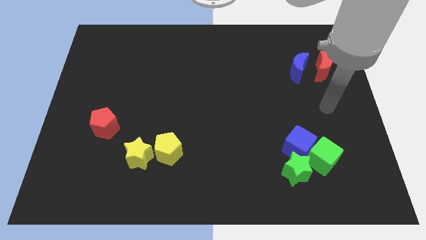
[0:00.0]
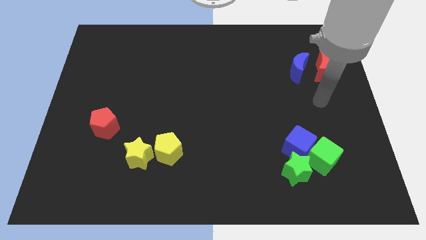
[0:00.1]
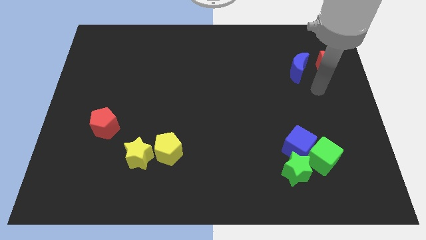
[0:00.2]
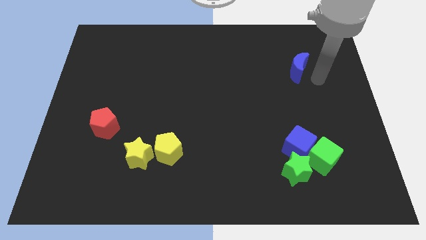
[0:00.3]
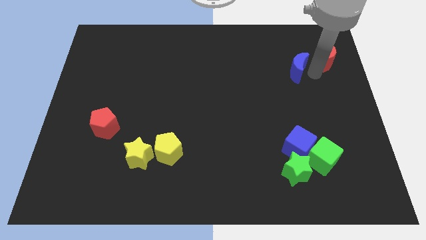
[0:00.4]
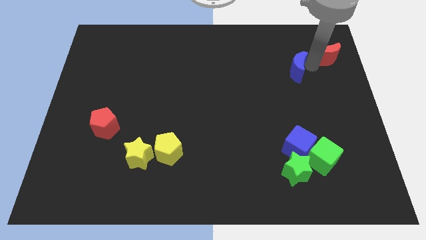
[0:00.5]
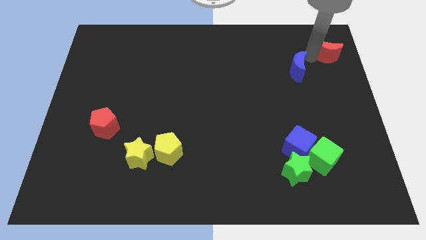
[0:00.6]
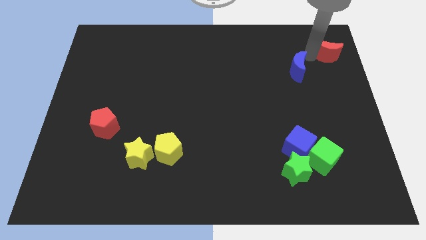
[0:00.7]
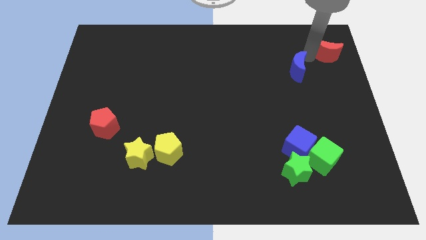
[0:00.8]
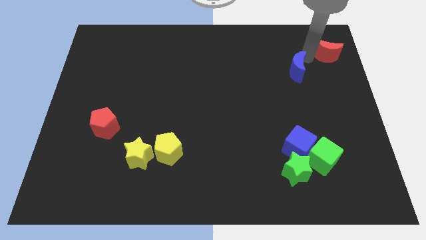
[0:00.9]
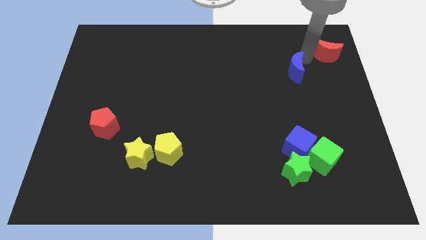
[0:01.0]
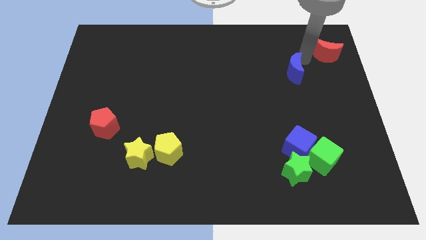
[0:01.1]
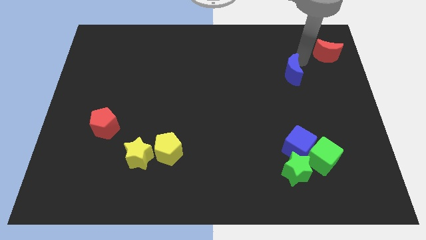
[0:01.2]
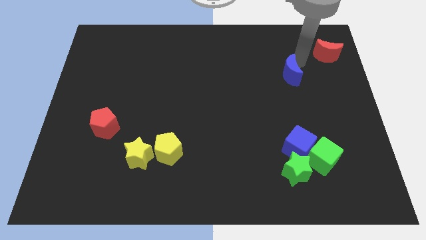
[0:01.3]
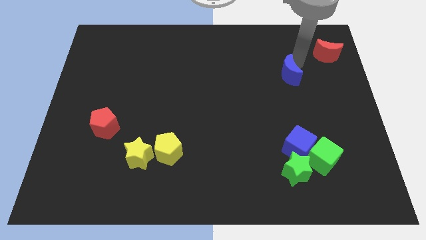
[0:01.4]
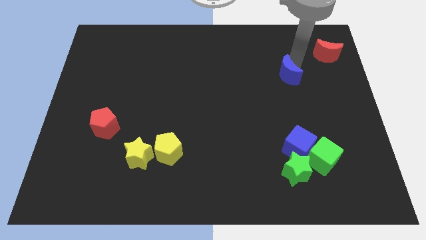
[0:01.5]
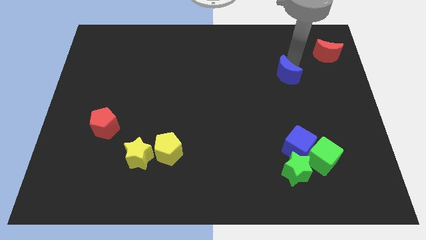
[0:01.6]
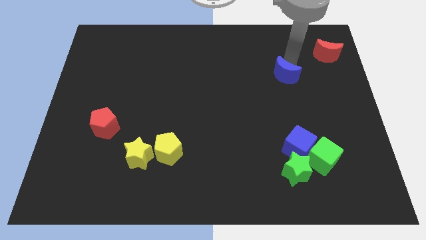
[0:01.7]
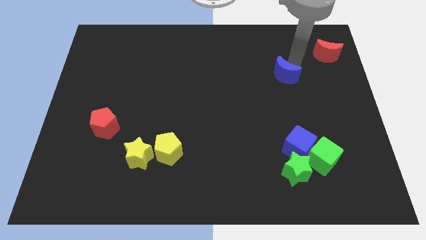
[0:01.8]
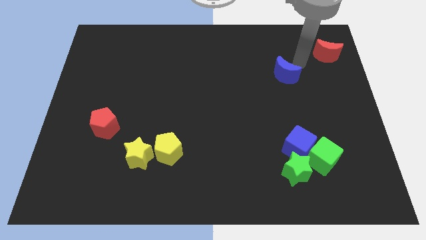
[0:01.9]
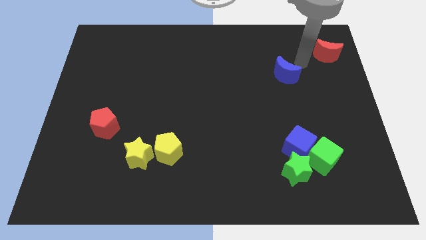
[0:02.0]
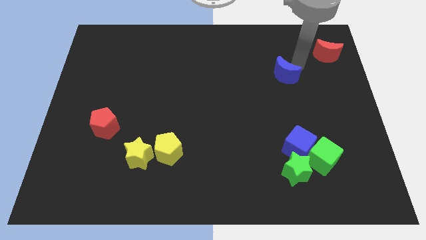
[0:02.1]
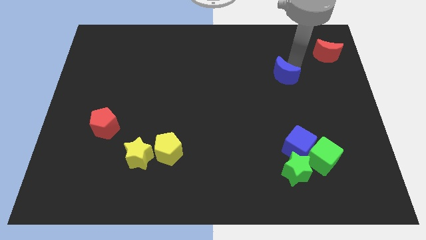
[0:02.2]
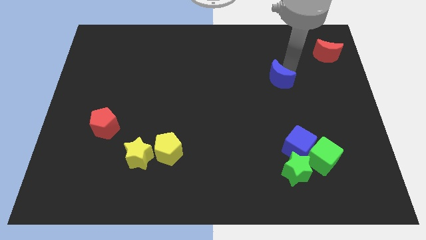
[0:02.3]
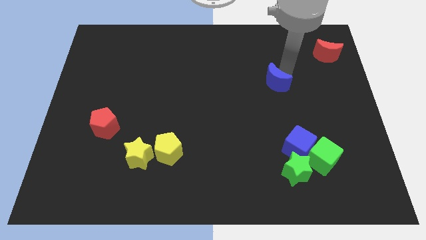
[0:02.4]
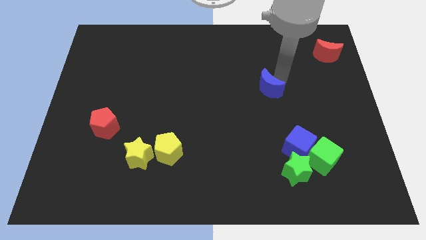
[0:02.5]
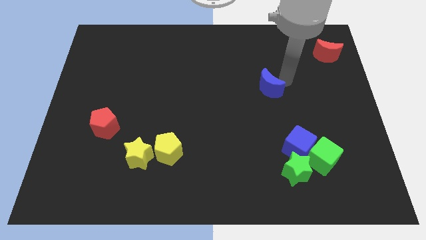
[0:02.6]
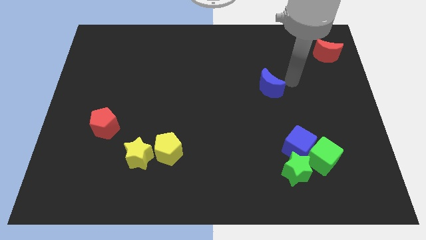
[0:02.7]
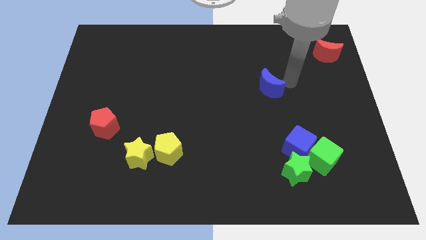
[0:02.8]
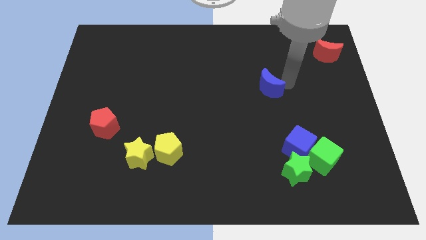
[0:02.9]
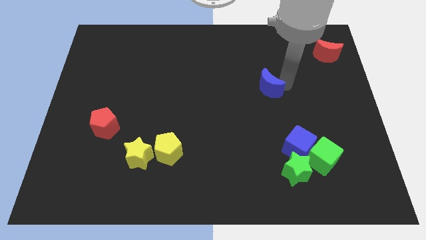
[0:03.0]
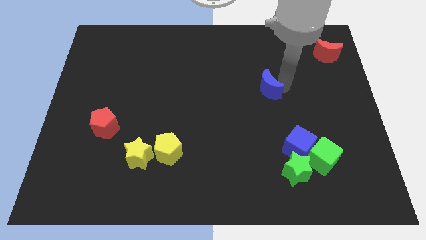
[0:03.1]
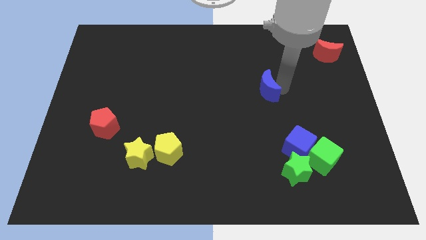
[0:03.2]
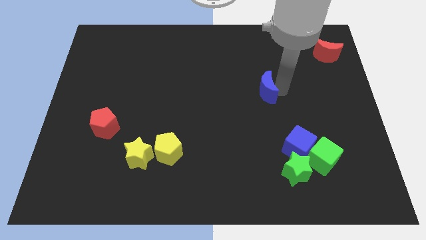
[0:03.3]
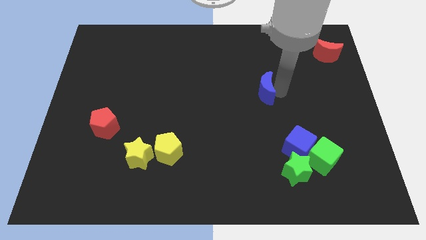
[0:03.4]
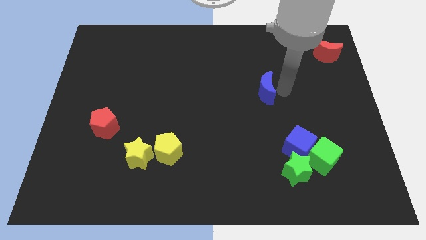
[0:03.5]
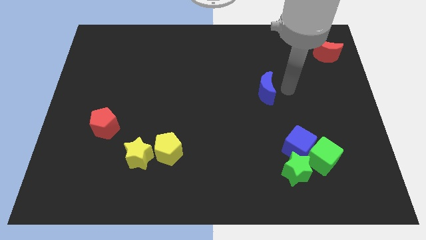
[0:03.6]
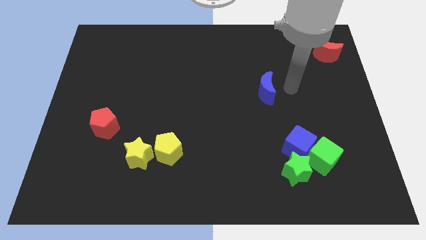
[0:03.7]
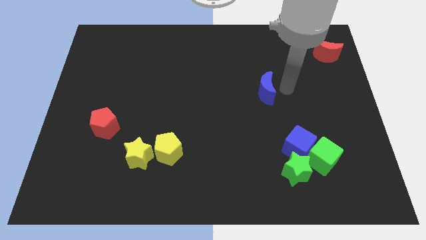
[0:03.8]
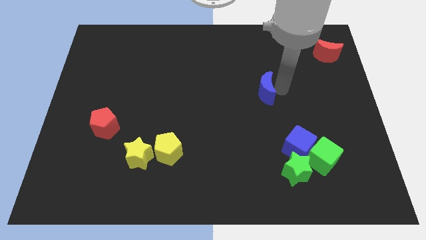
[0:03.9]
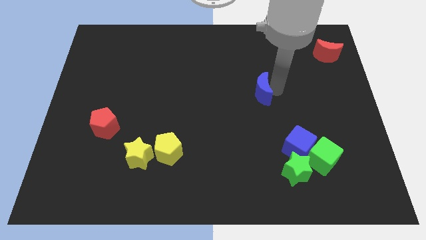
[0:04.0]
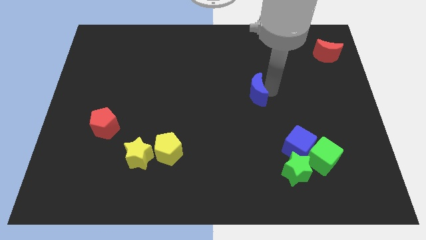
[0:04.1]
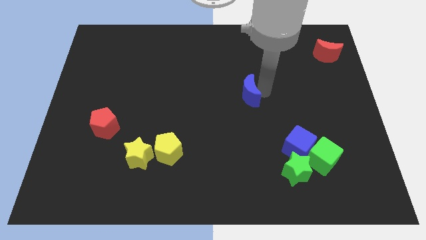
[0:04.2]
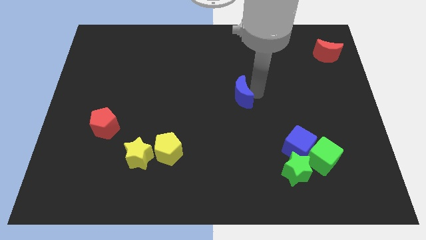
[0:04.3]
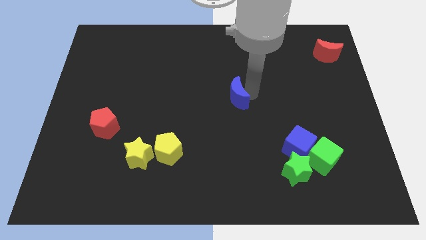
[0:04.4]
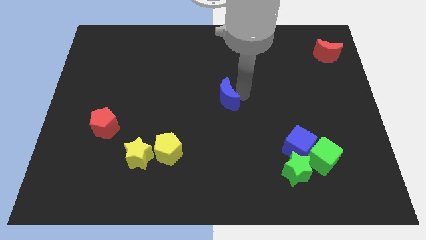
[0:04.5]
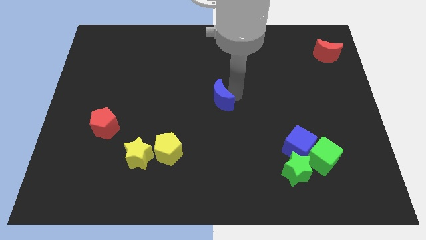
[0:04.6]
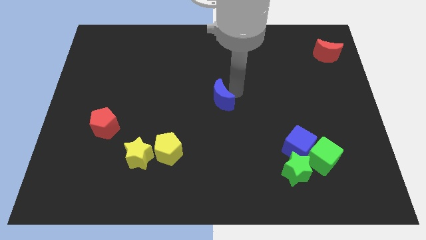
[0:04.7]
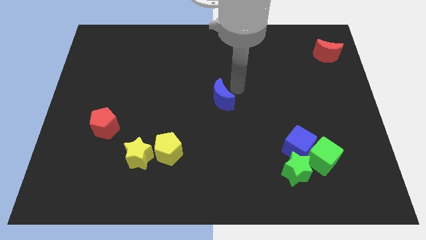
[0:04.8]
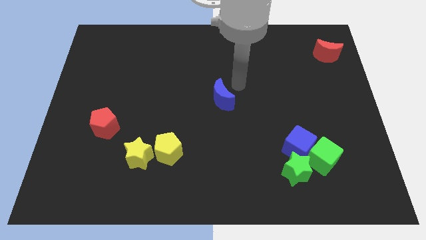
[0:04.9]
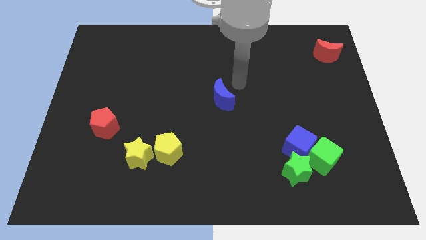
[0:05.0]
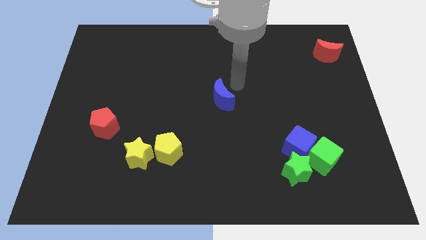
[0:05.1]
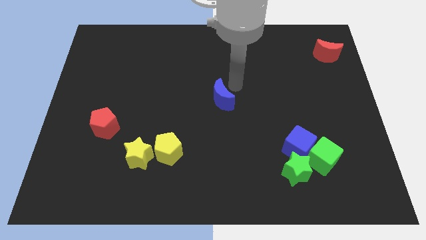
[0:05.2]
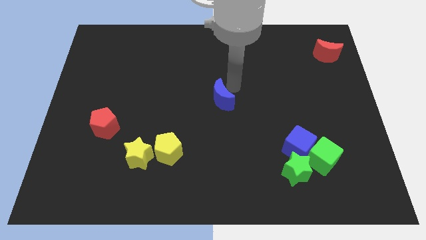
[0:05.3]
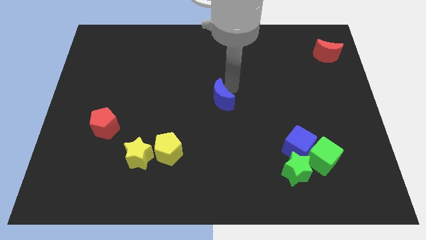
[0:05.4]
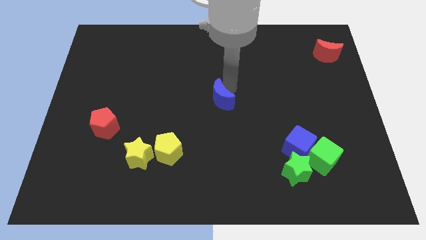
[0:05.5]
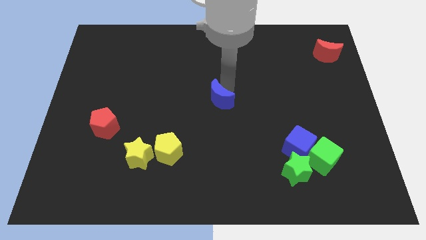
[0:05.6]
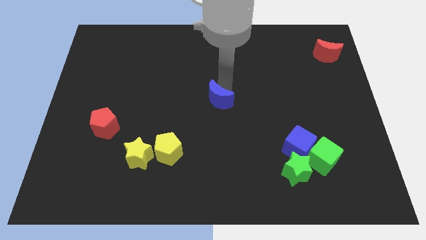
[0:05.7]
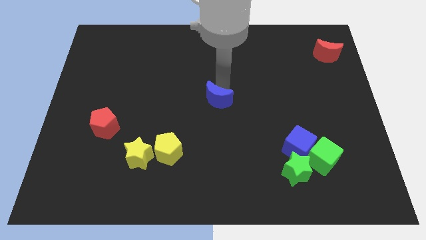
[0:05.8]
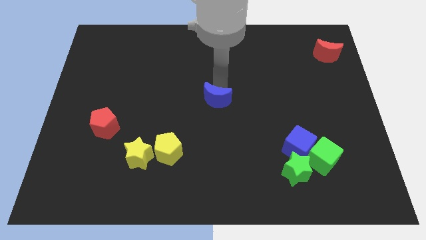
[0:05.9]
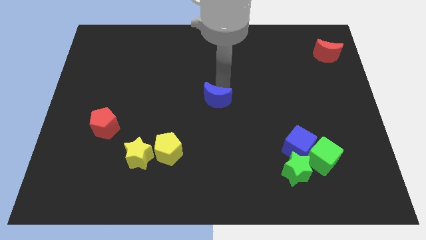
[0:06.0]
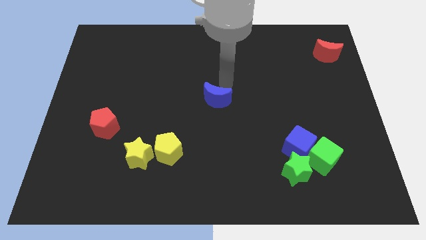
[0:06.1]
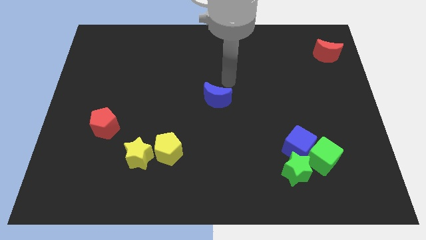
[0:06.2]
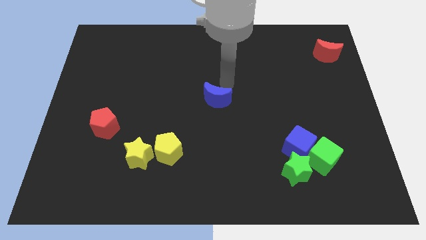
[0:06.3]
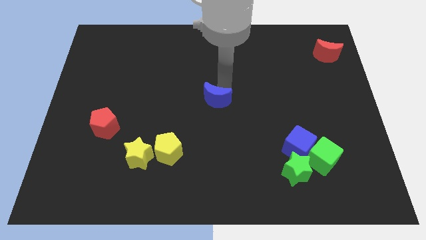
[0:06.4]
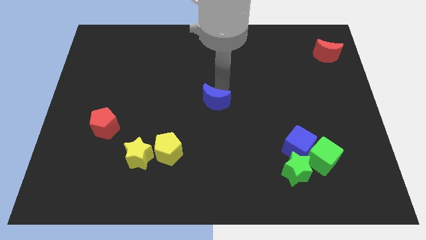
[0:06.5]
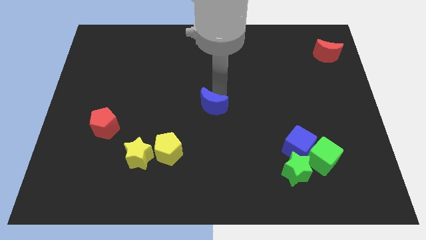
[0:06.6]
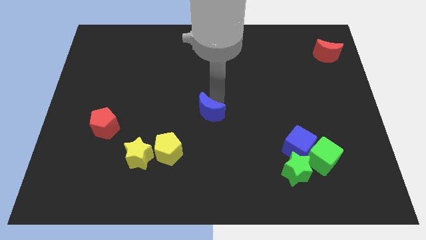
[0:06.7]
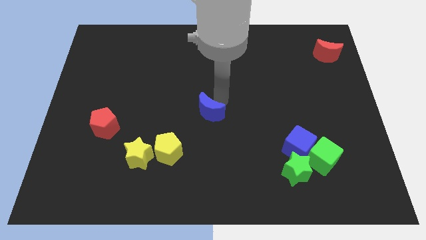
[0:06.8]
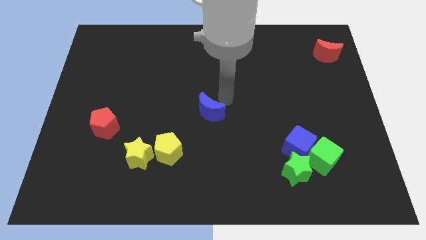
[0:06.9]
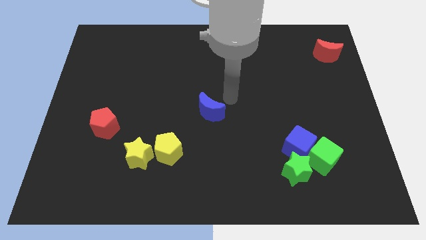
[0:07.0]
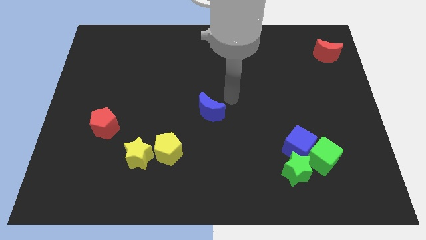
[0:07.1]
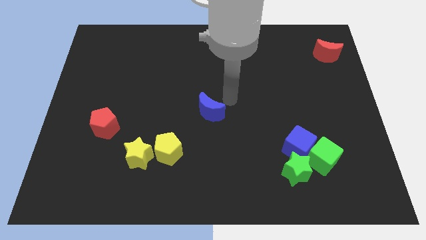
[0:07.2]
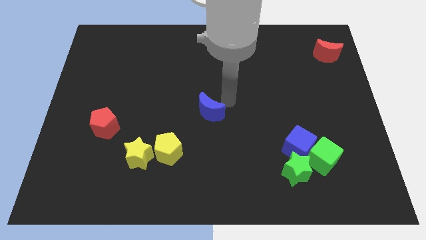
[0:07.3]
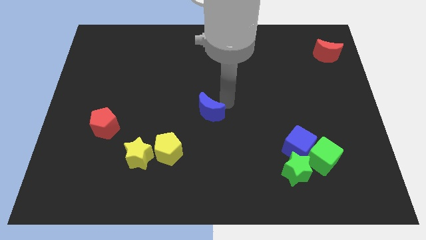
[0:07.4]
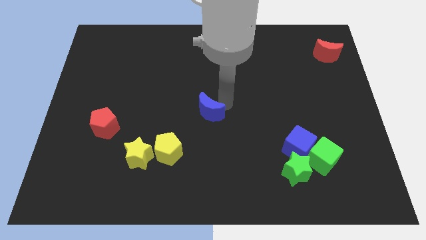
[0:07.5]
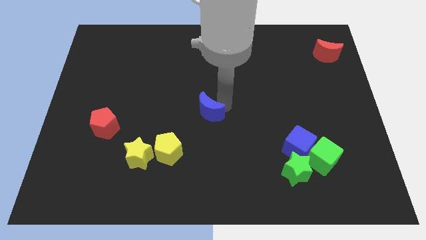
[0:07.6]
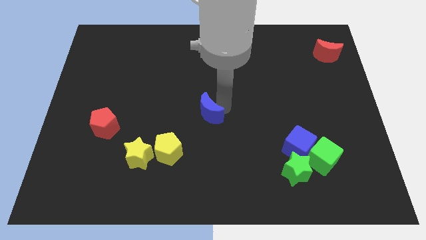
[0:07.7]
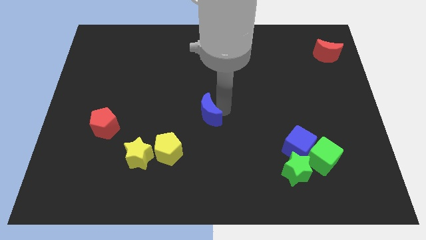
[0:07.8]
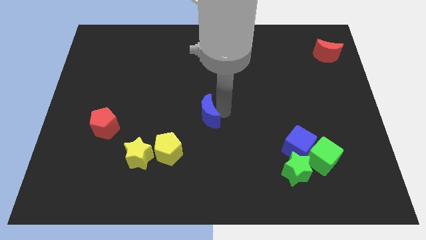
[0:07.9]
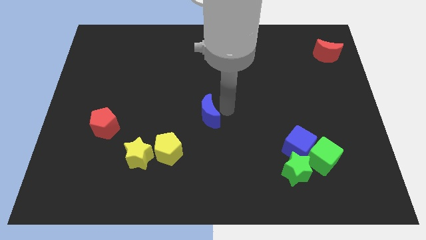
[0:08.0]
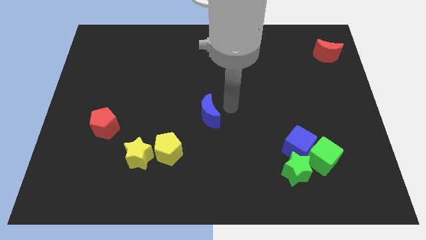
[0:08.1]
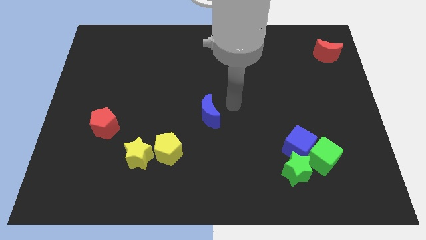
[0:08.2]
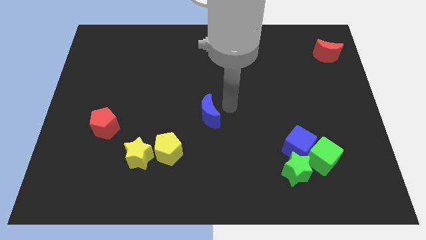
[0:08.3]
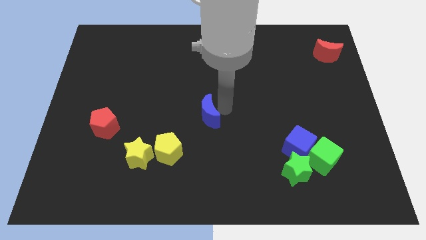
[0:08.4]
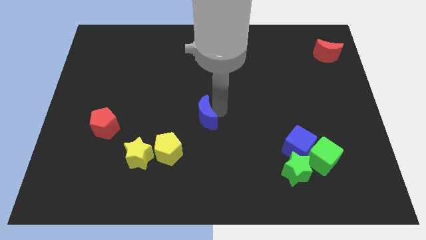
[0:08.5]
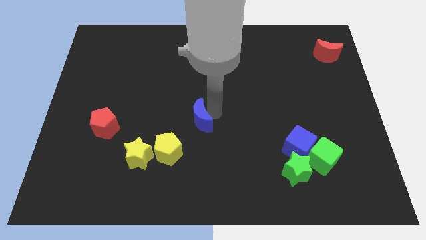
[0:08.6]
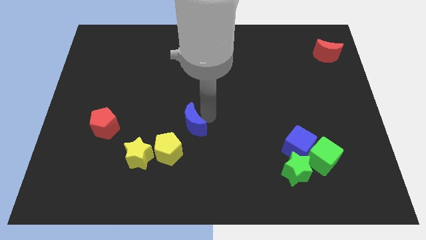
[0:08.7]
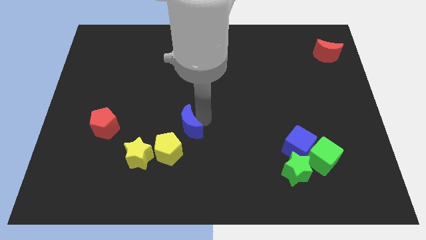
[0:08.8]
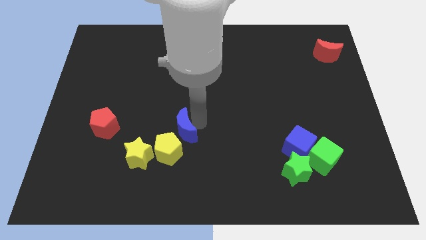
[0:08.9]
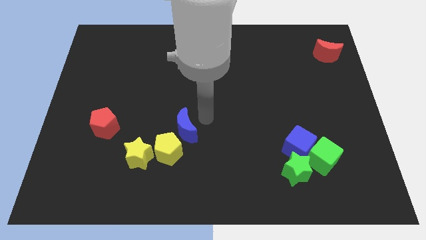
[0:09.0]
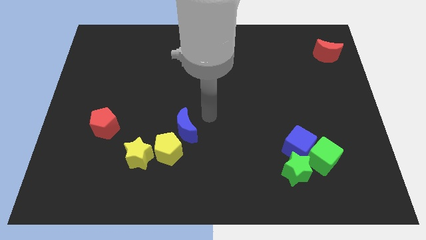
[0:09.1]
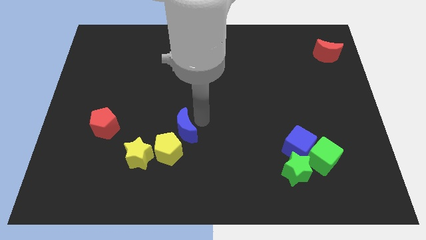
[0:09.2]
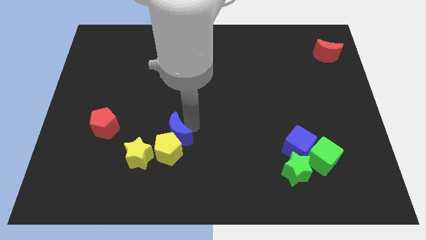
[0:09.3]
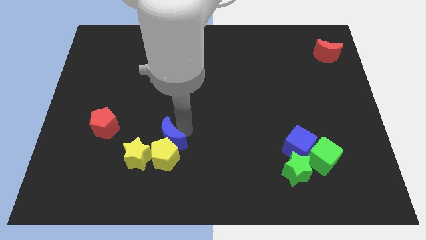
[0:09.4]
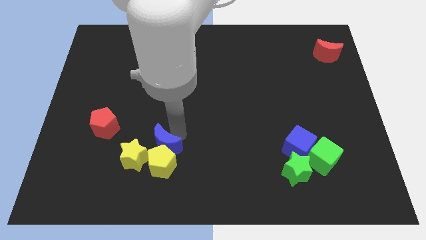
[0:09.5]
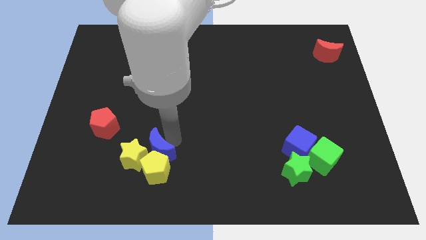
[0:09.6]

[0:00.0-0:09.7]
put the blue moon towards the yellow star
